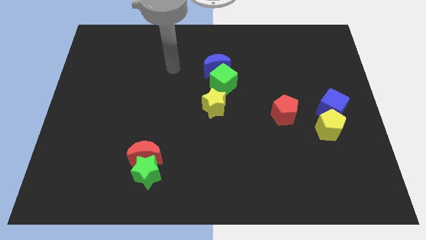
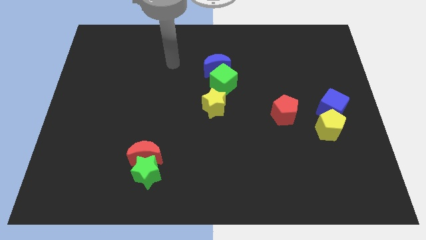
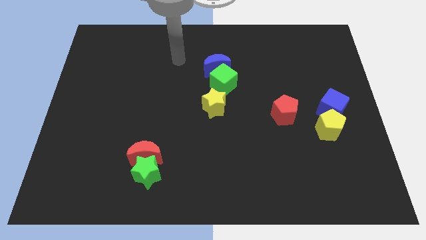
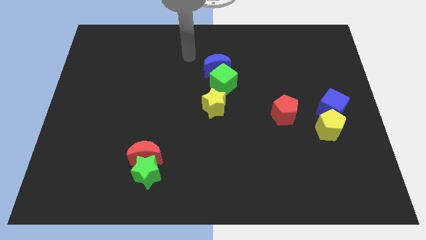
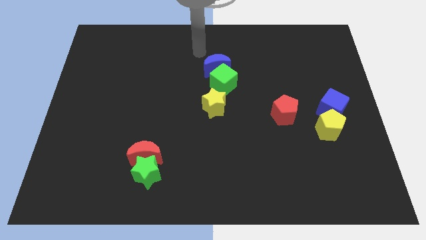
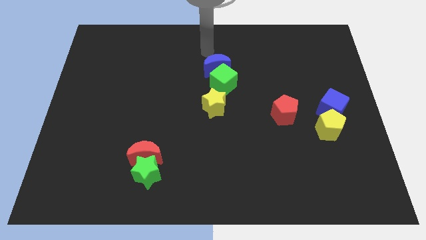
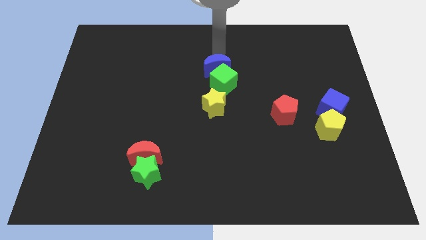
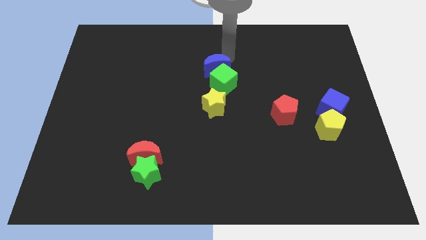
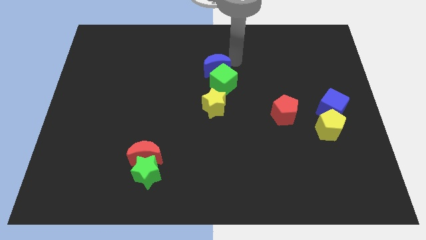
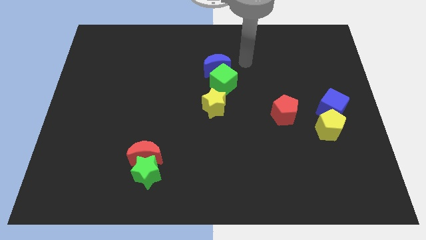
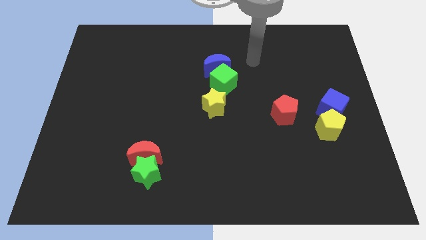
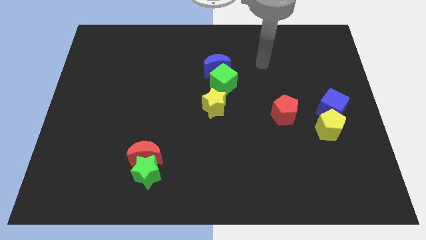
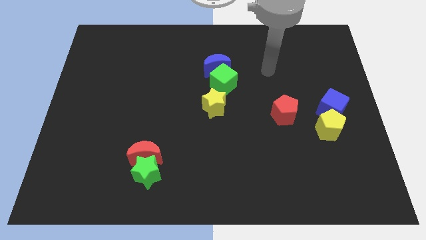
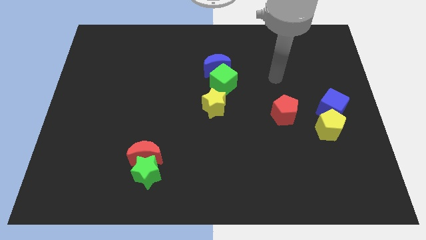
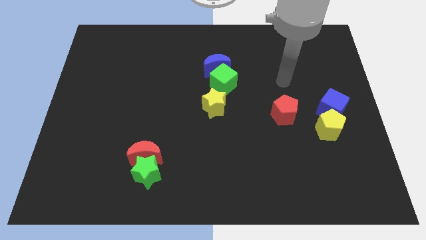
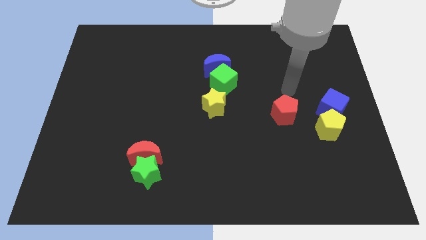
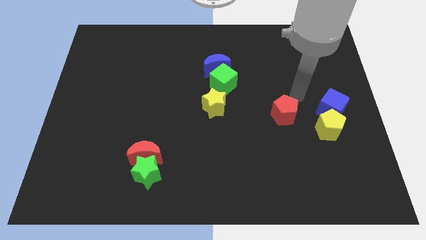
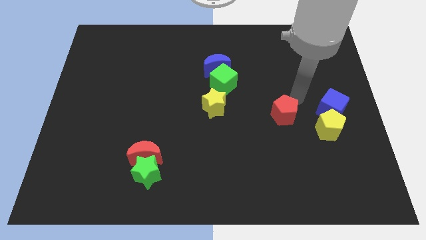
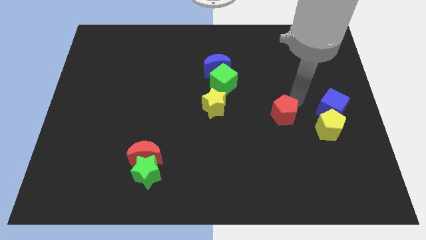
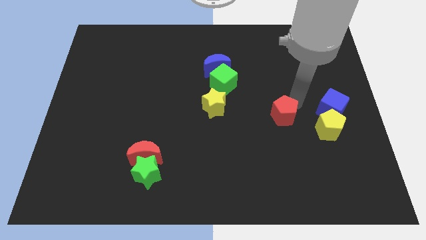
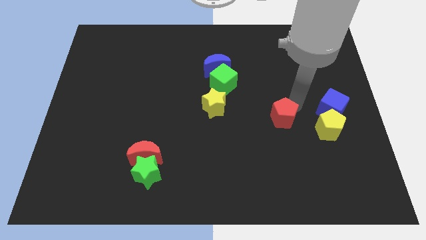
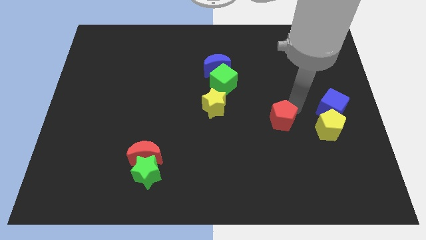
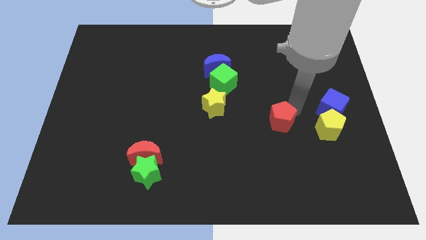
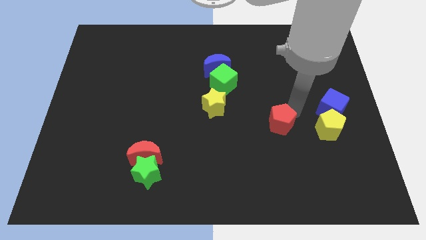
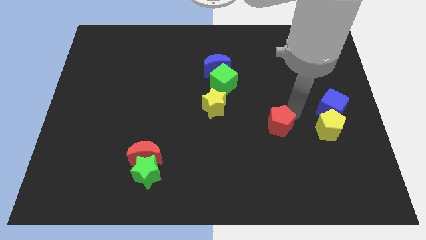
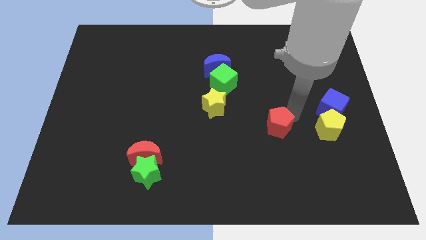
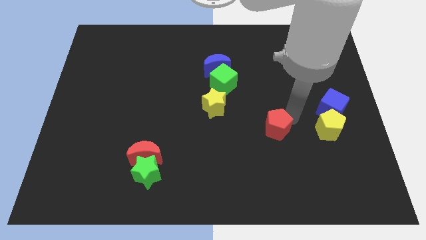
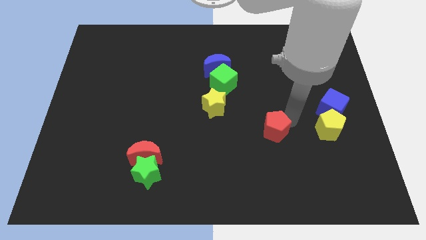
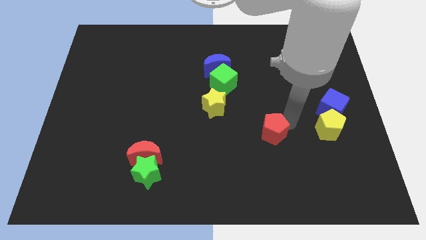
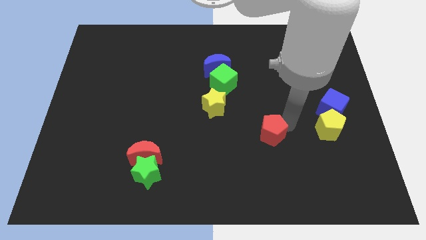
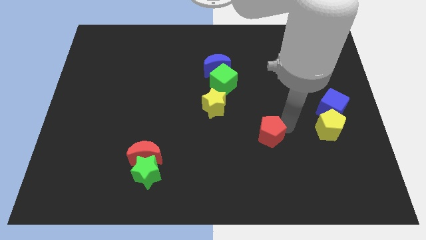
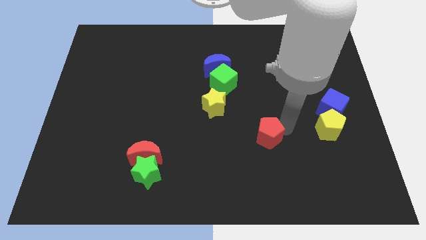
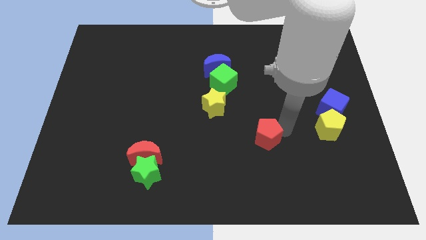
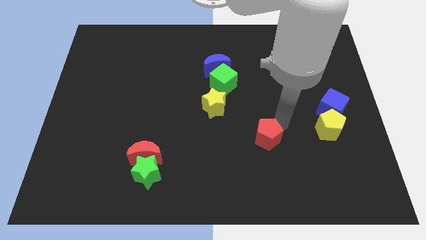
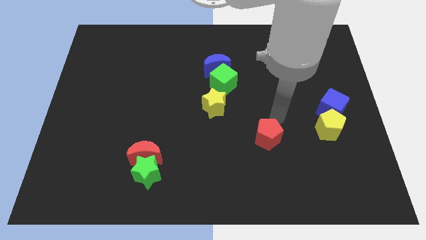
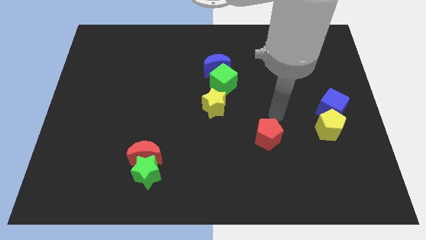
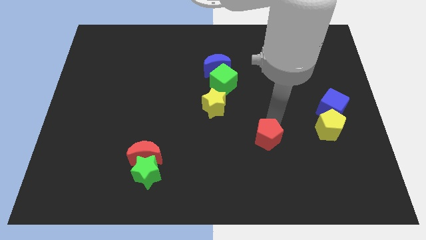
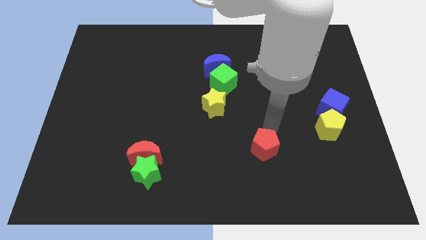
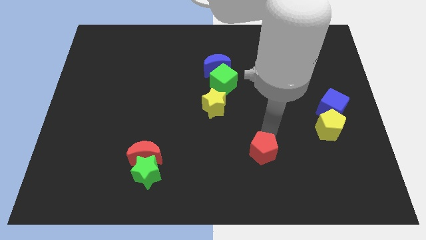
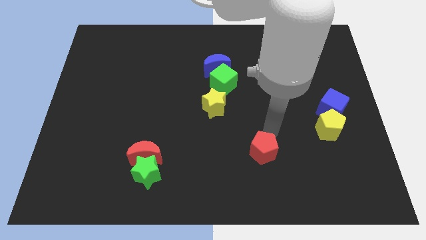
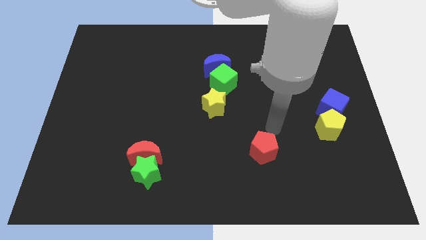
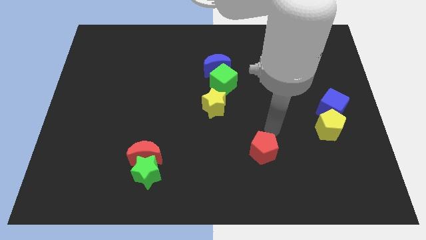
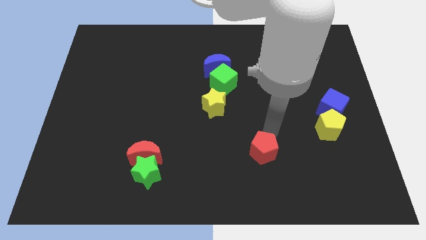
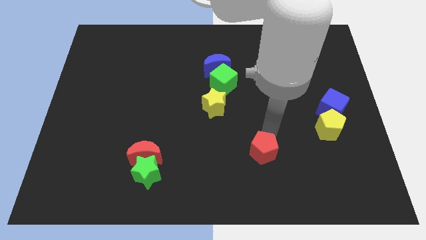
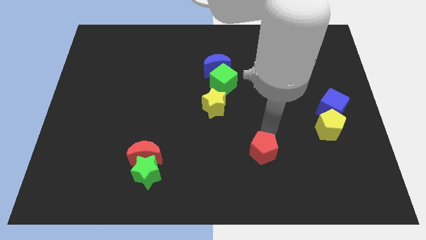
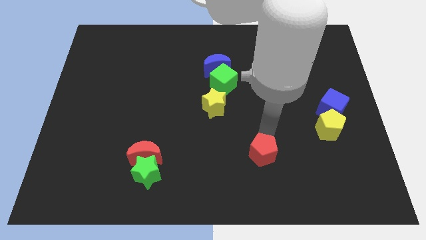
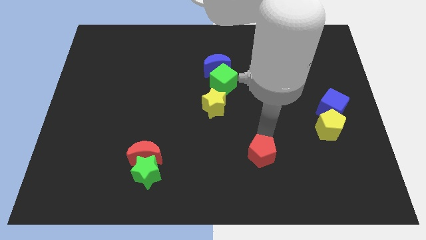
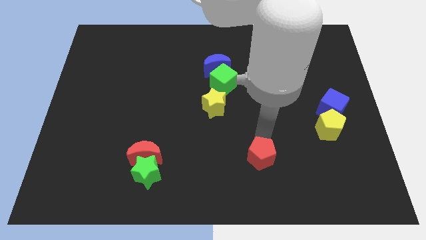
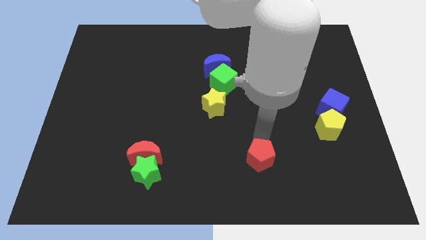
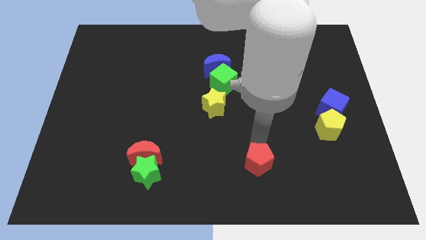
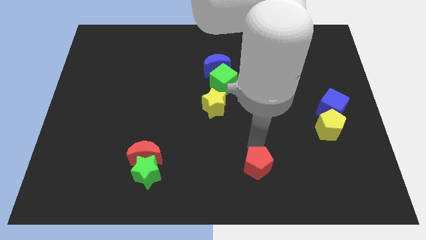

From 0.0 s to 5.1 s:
put the red pentagon to the bottom side

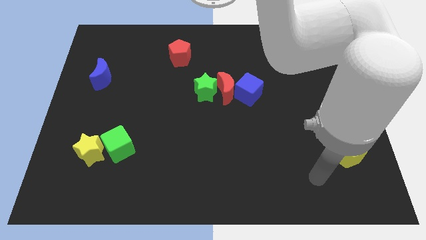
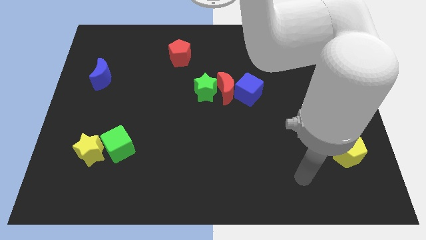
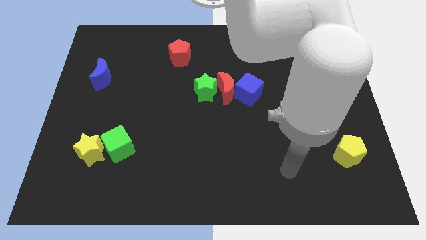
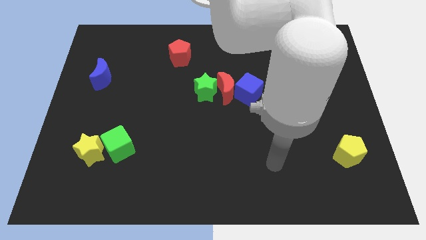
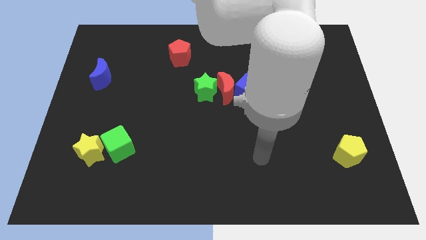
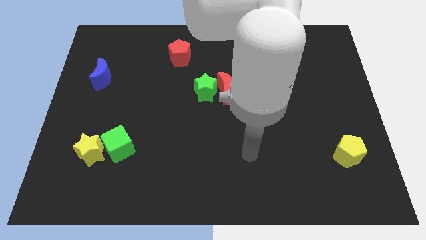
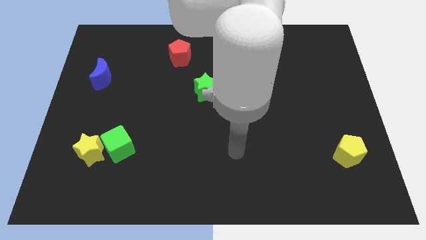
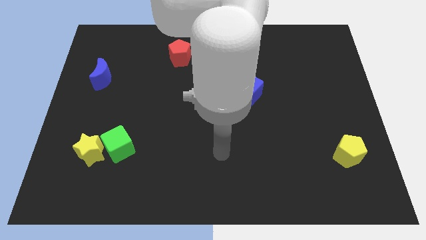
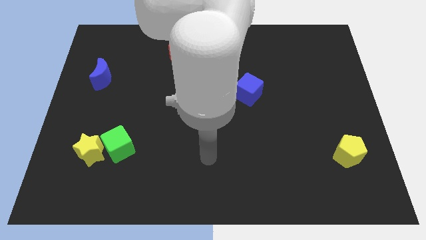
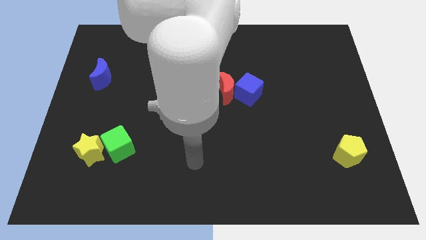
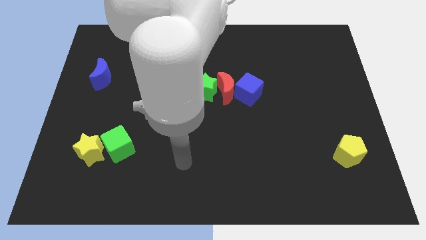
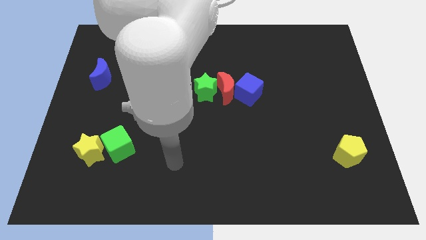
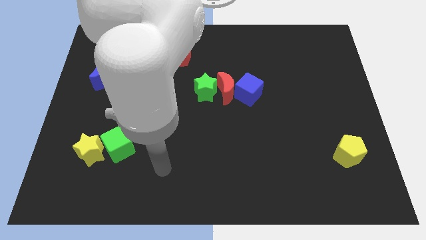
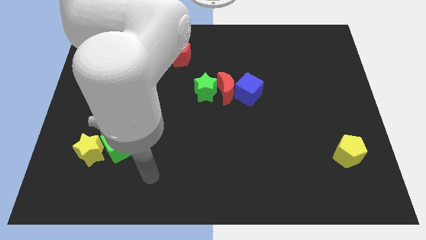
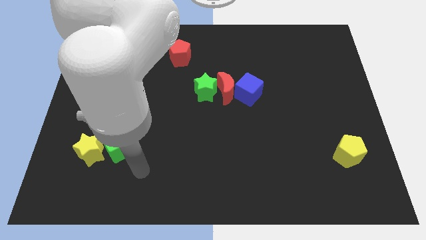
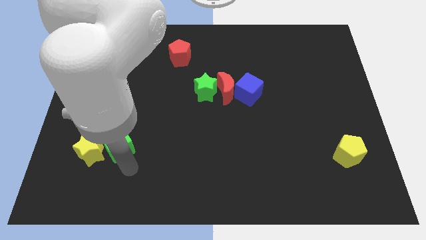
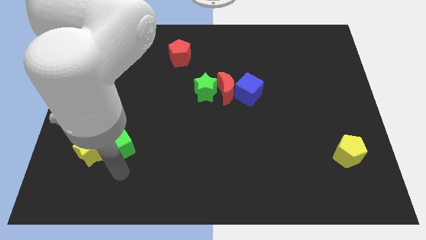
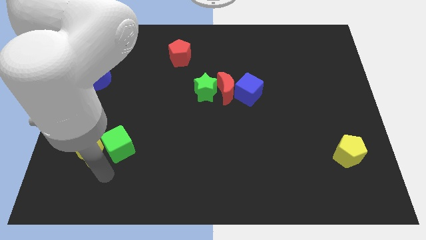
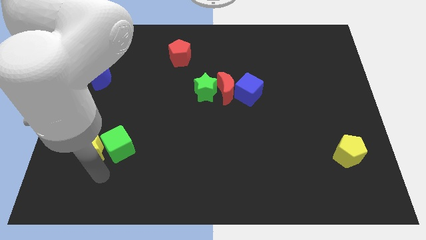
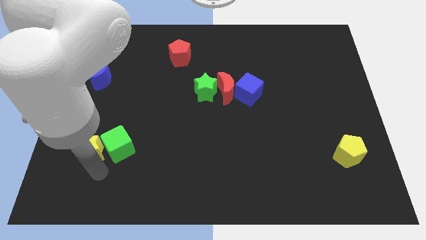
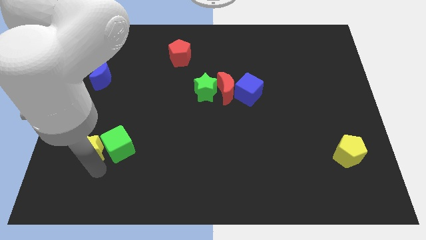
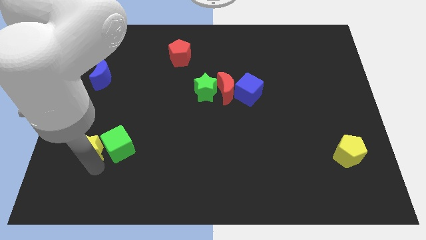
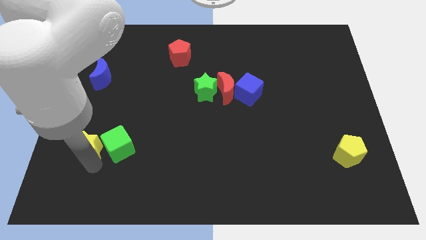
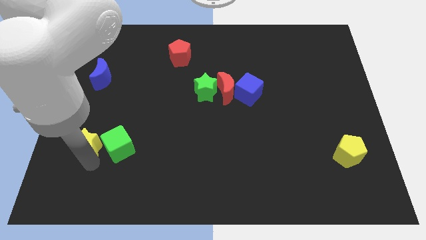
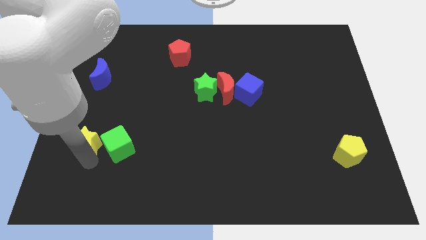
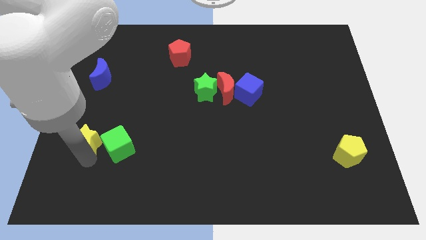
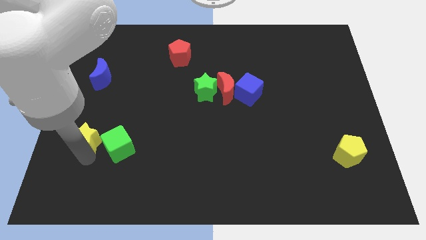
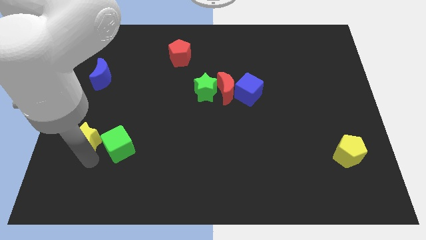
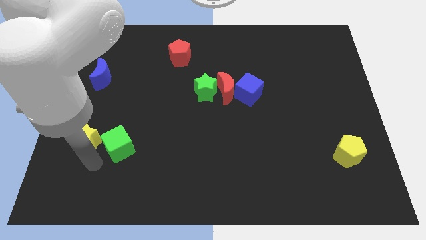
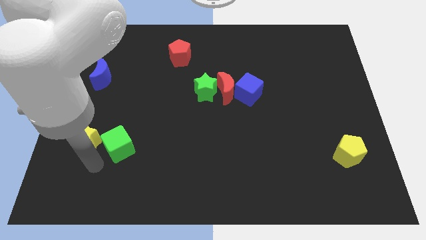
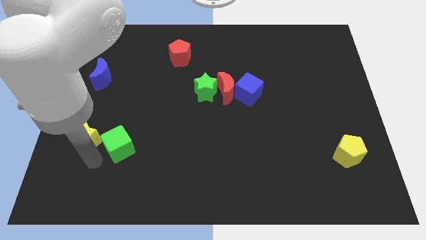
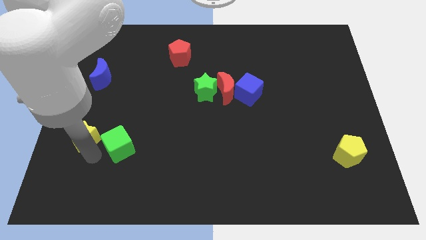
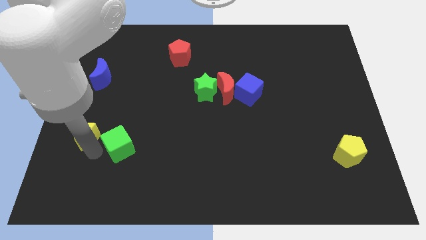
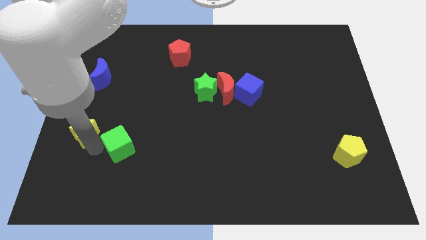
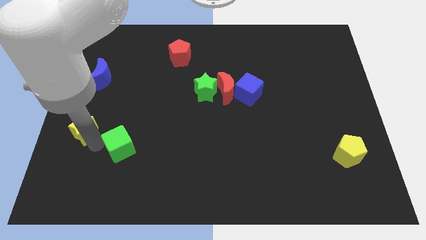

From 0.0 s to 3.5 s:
move the yellow star to the center left
